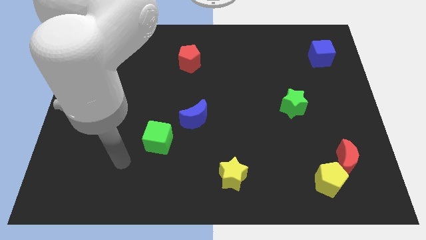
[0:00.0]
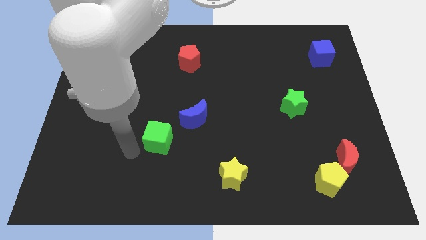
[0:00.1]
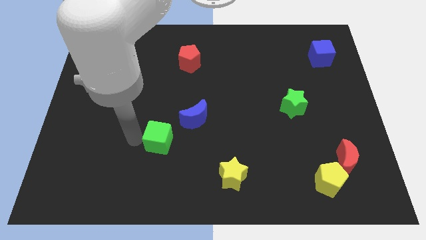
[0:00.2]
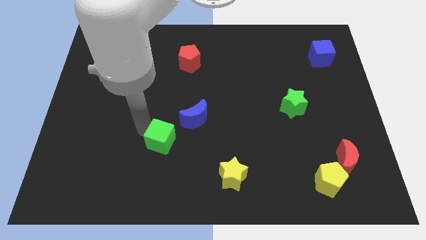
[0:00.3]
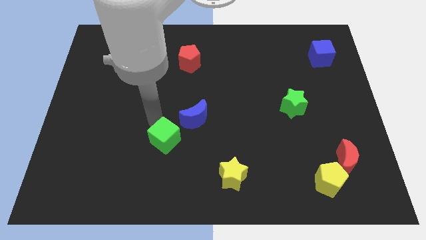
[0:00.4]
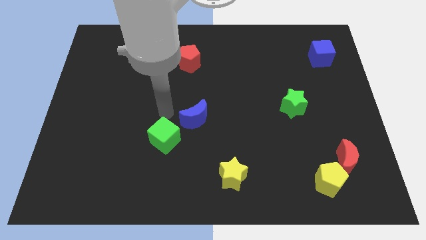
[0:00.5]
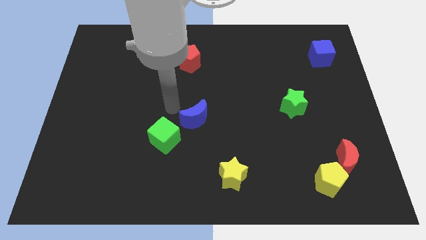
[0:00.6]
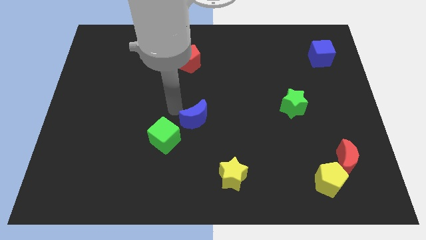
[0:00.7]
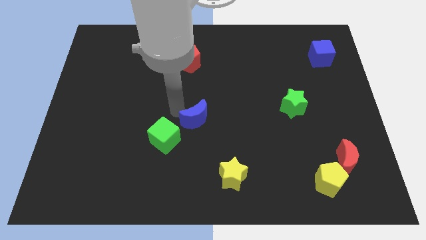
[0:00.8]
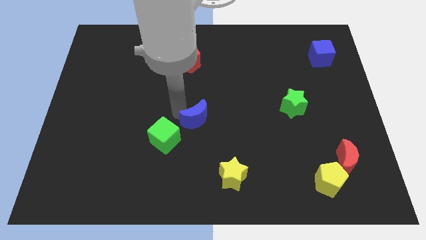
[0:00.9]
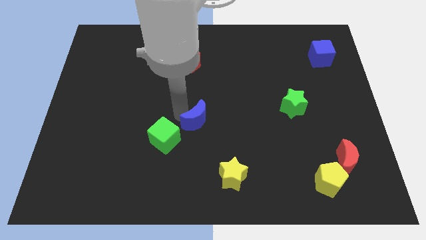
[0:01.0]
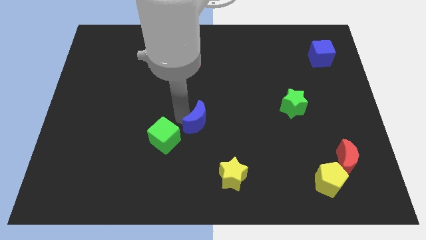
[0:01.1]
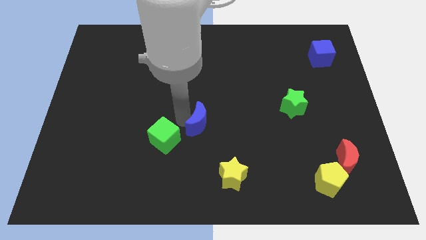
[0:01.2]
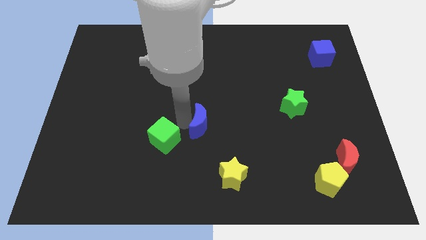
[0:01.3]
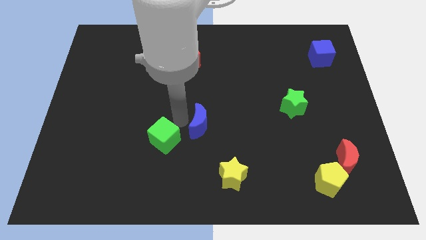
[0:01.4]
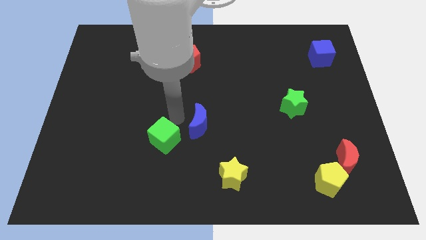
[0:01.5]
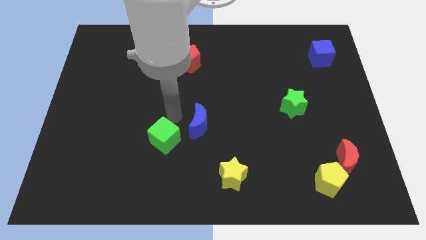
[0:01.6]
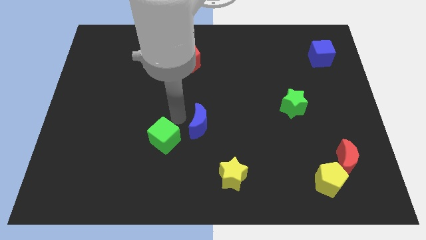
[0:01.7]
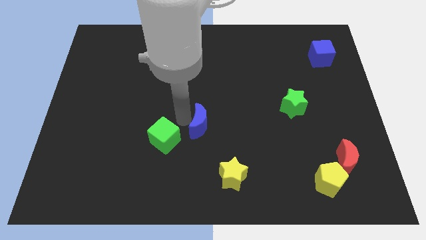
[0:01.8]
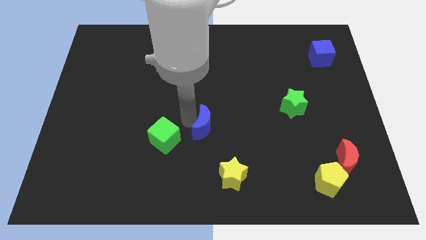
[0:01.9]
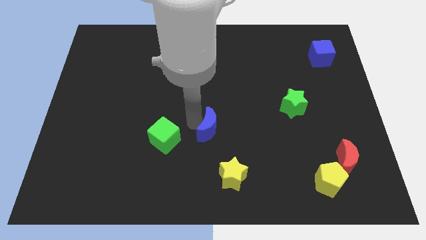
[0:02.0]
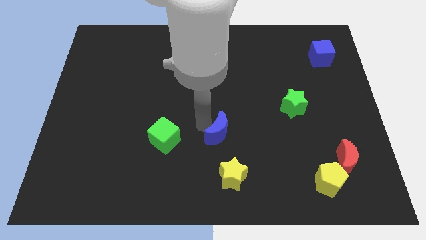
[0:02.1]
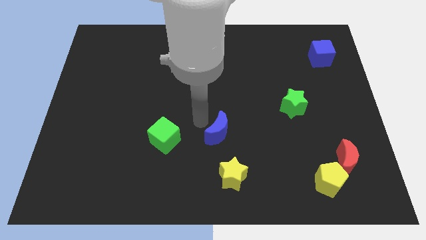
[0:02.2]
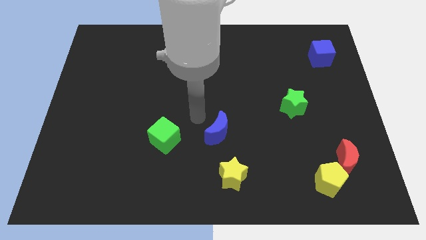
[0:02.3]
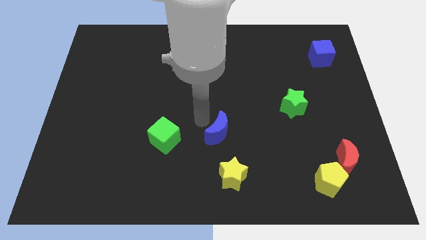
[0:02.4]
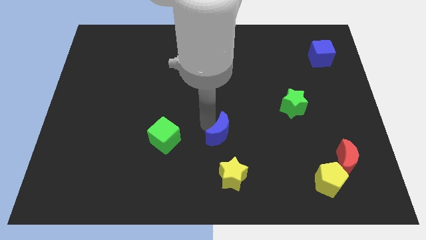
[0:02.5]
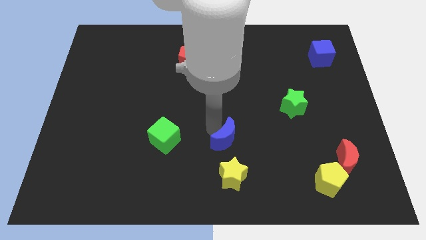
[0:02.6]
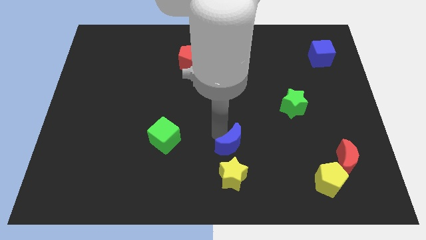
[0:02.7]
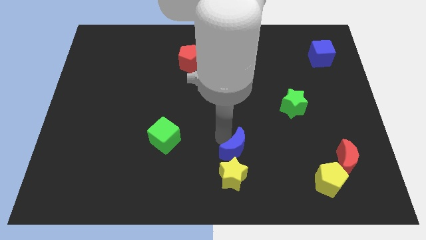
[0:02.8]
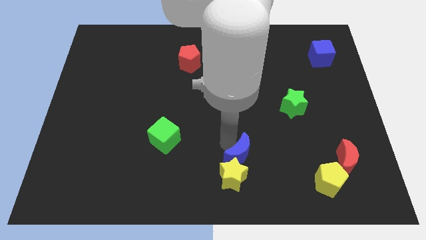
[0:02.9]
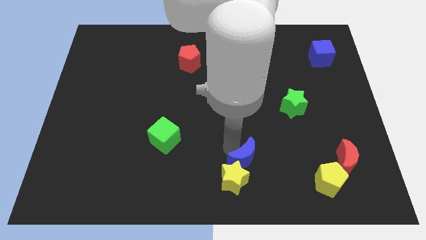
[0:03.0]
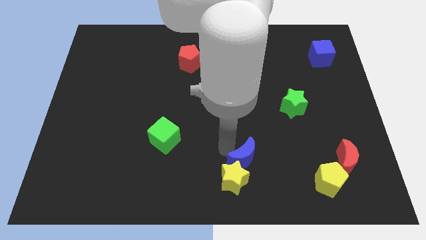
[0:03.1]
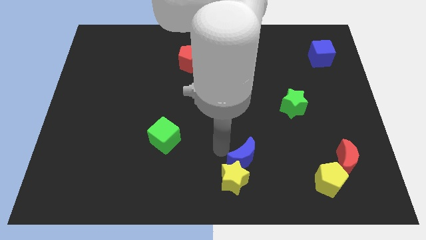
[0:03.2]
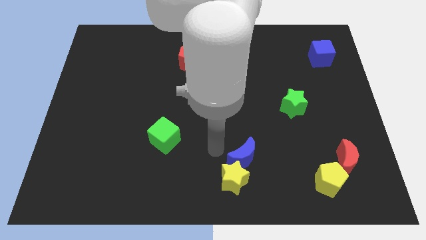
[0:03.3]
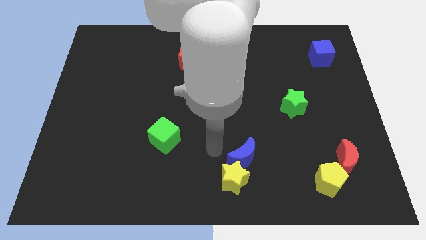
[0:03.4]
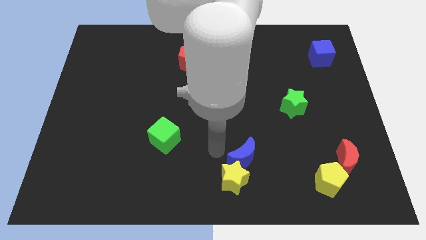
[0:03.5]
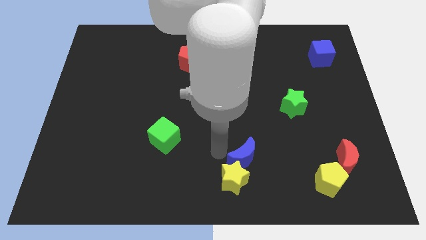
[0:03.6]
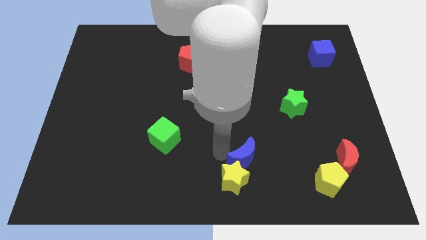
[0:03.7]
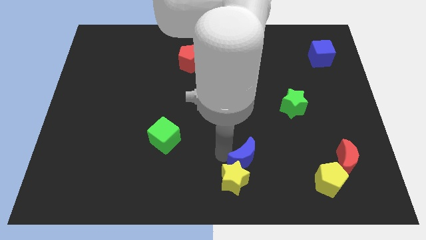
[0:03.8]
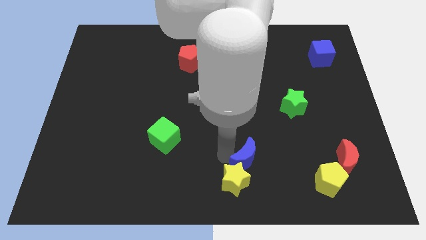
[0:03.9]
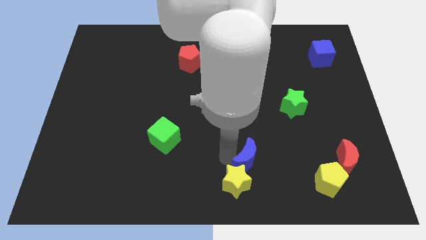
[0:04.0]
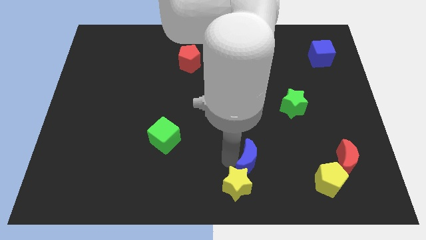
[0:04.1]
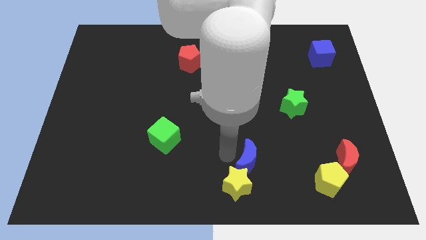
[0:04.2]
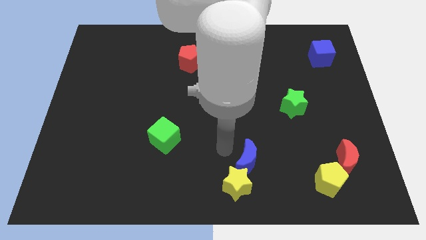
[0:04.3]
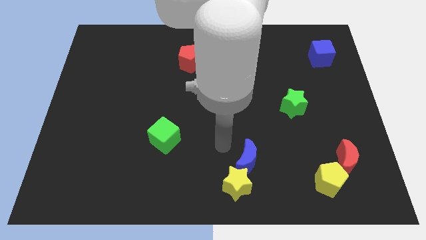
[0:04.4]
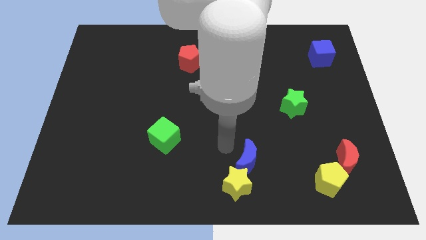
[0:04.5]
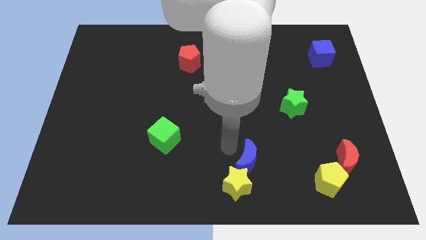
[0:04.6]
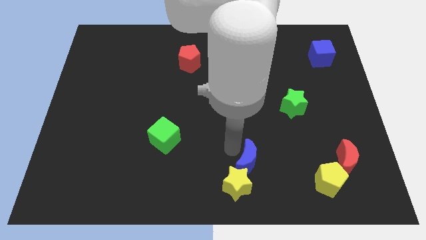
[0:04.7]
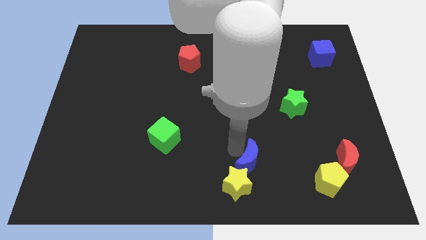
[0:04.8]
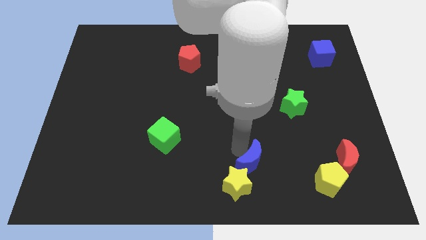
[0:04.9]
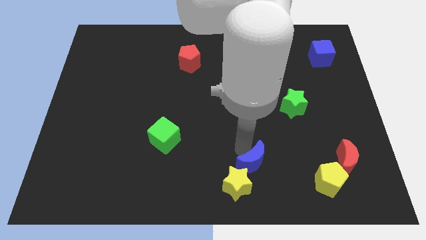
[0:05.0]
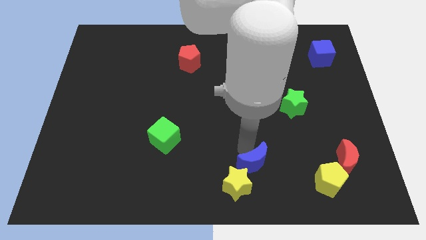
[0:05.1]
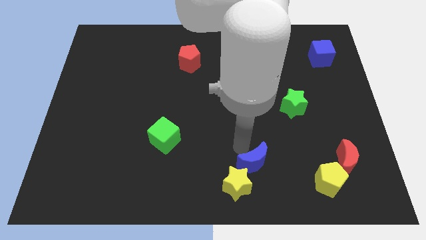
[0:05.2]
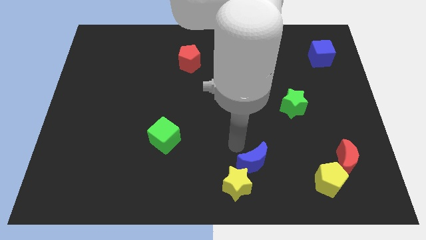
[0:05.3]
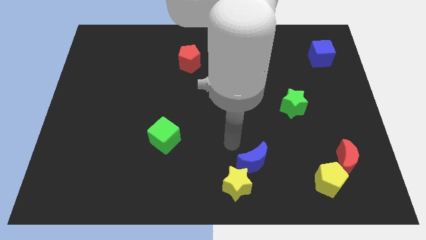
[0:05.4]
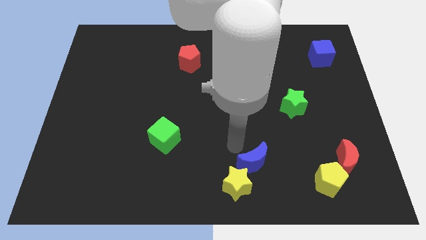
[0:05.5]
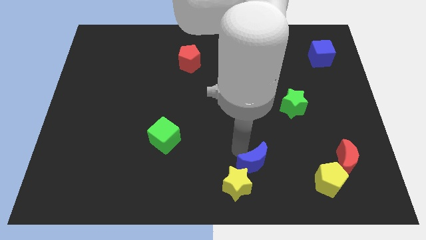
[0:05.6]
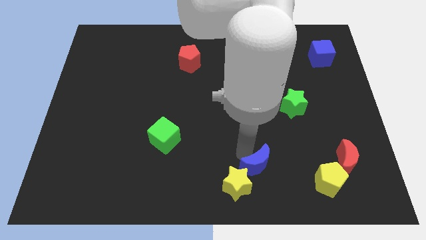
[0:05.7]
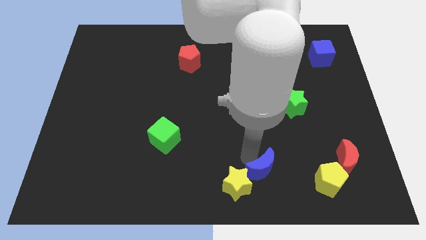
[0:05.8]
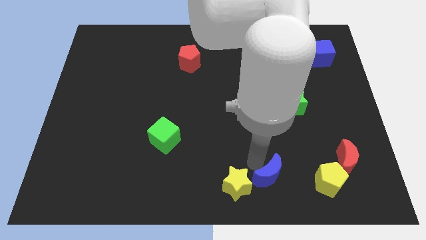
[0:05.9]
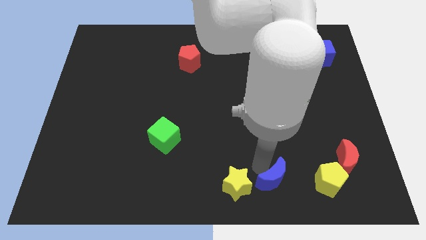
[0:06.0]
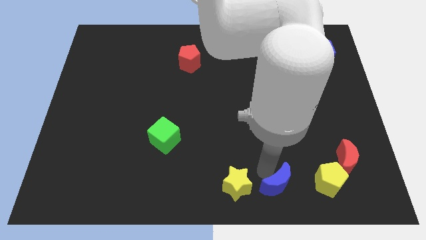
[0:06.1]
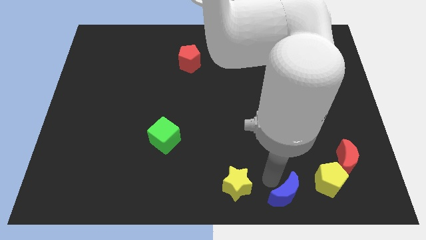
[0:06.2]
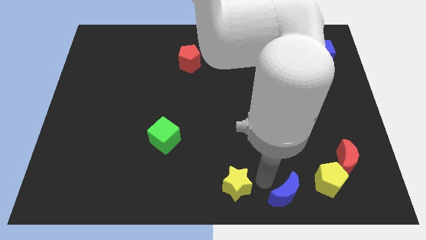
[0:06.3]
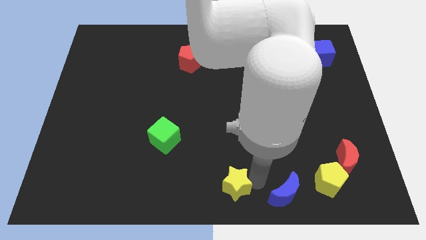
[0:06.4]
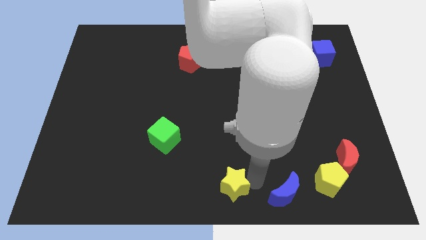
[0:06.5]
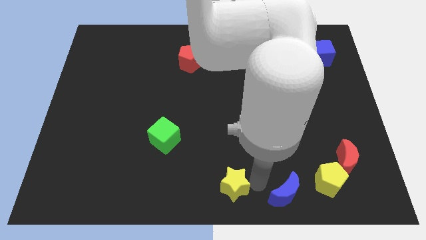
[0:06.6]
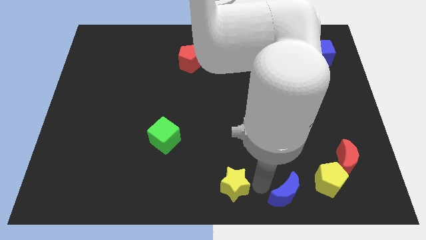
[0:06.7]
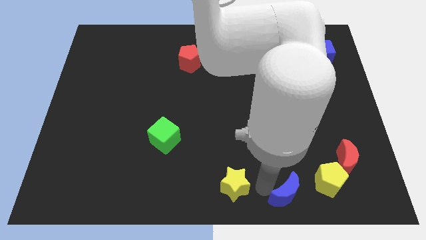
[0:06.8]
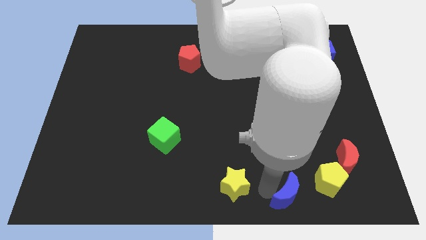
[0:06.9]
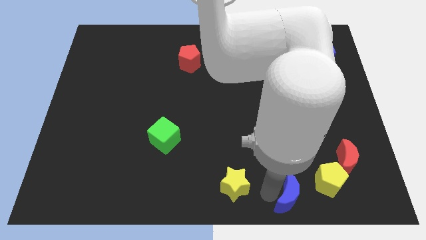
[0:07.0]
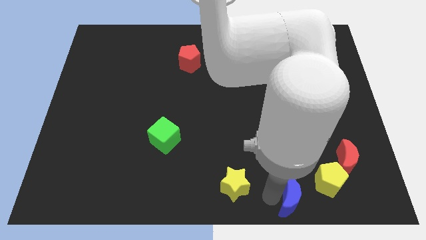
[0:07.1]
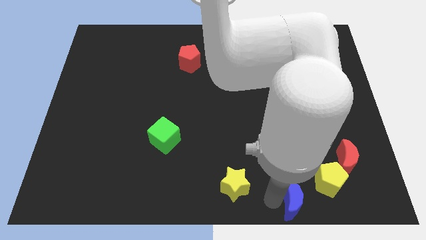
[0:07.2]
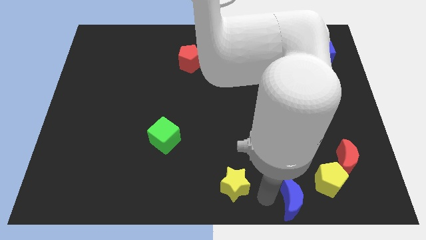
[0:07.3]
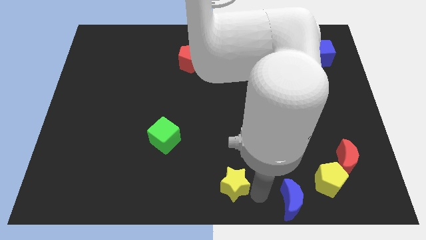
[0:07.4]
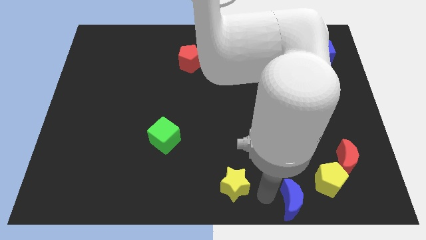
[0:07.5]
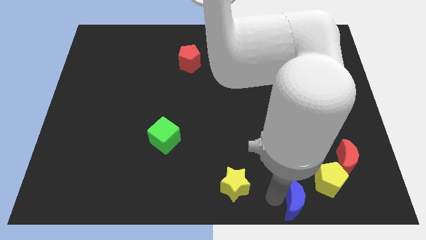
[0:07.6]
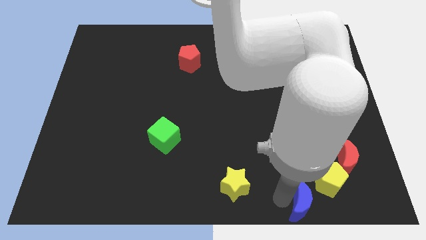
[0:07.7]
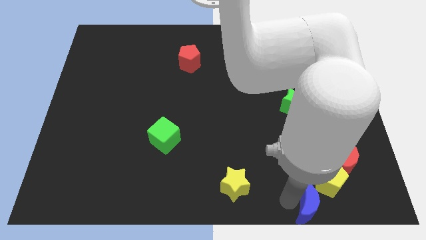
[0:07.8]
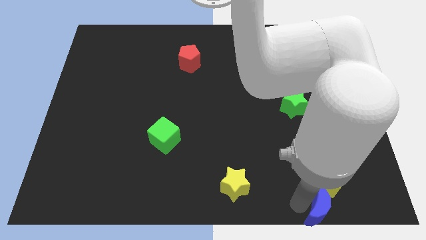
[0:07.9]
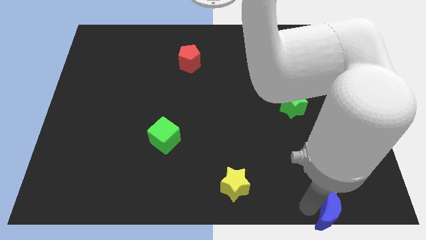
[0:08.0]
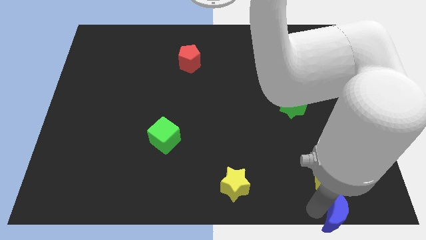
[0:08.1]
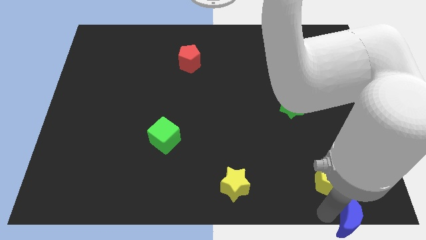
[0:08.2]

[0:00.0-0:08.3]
slide the blue moon to the bottom right
